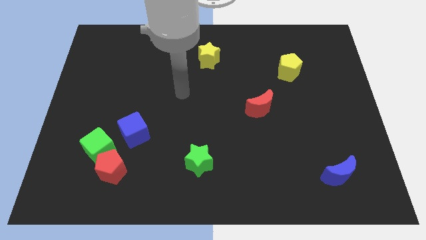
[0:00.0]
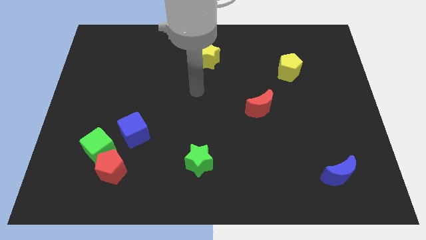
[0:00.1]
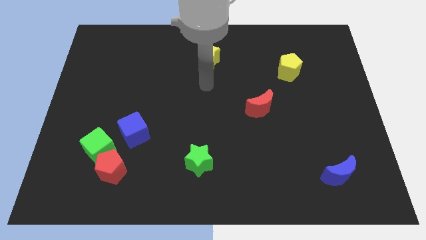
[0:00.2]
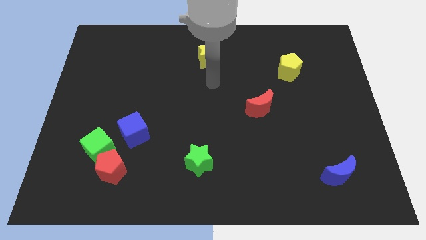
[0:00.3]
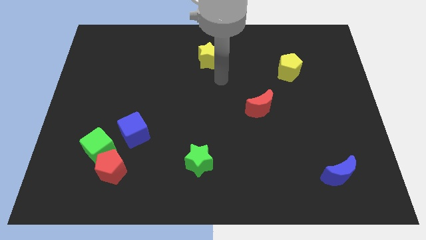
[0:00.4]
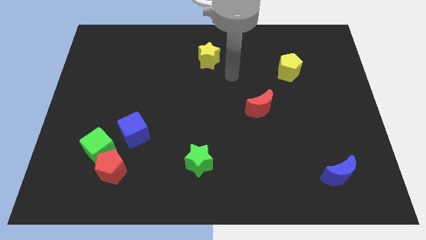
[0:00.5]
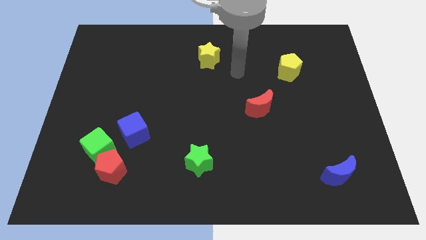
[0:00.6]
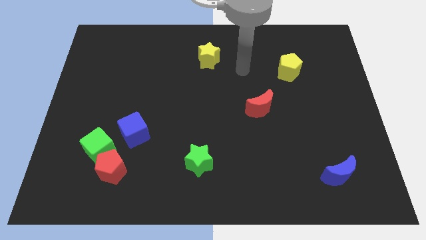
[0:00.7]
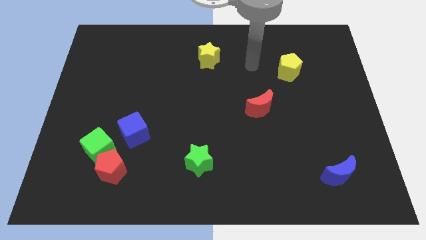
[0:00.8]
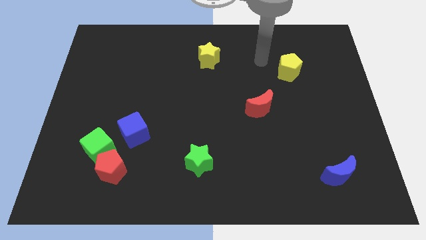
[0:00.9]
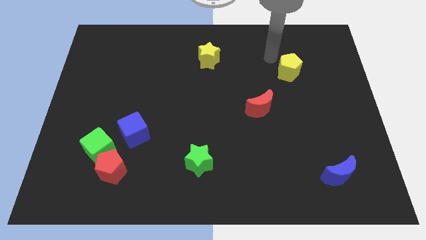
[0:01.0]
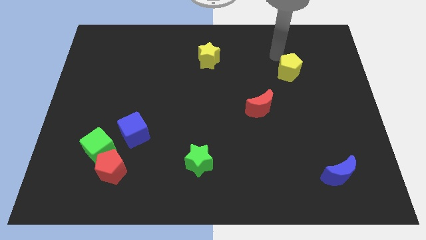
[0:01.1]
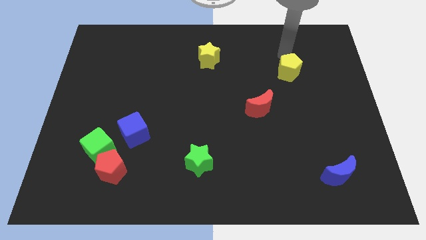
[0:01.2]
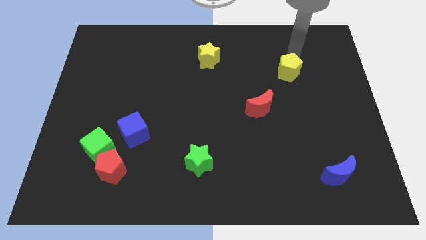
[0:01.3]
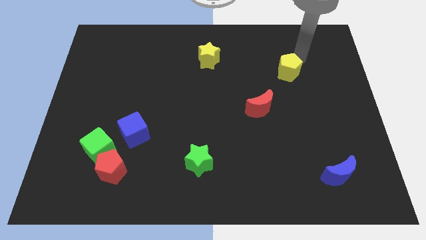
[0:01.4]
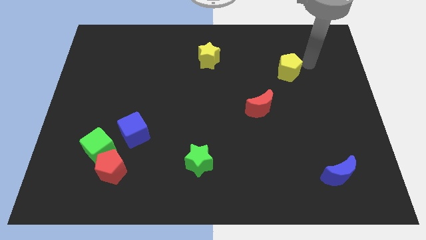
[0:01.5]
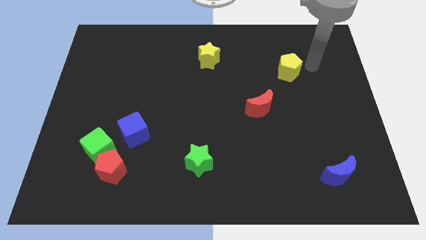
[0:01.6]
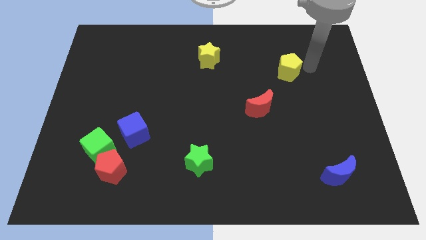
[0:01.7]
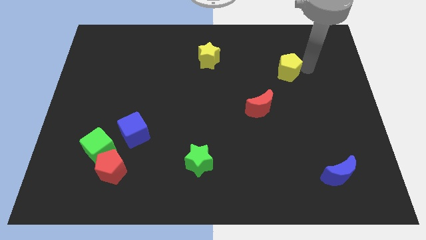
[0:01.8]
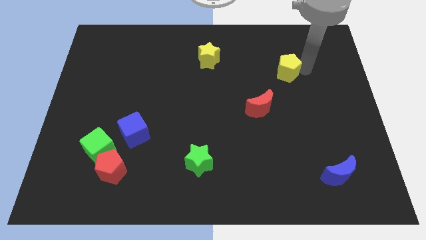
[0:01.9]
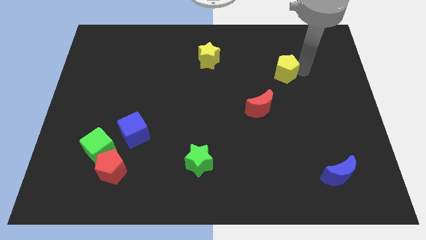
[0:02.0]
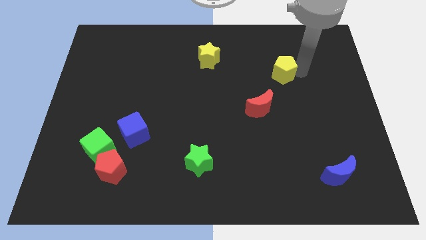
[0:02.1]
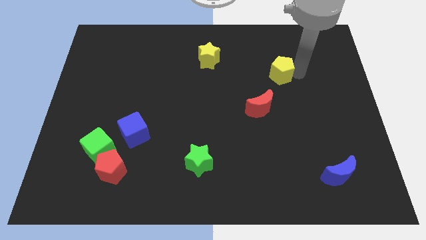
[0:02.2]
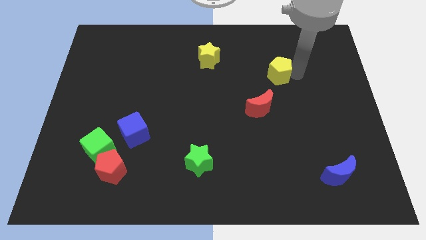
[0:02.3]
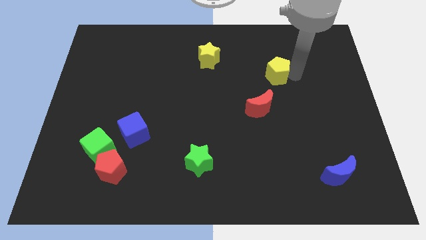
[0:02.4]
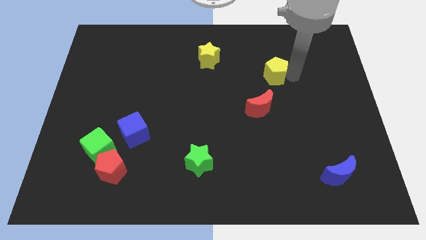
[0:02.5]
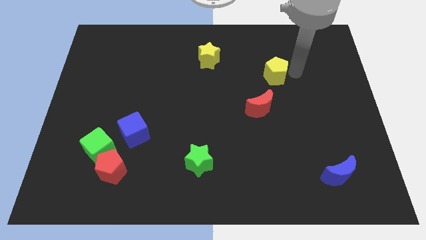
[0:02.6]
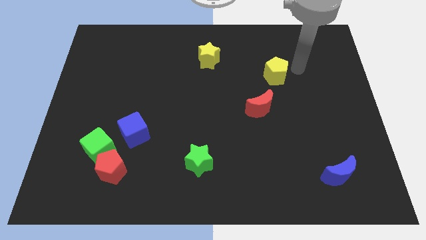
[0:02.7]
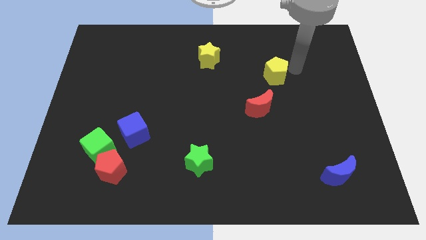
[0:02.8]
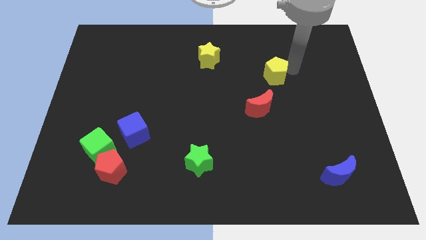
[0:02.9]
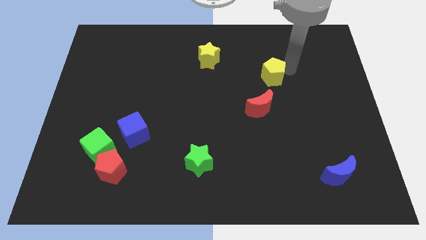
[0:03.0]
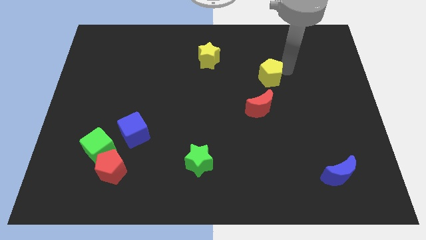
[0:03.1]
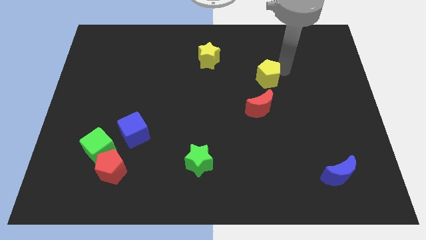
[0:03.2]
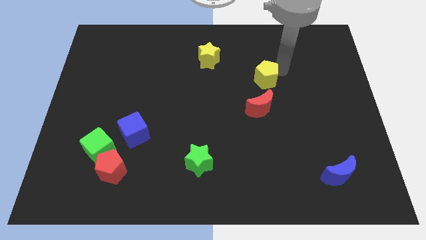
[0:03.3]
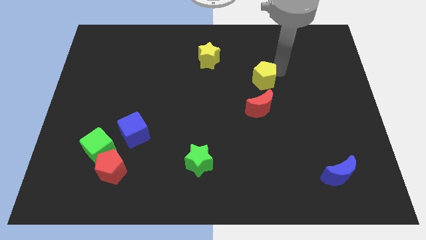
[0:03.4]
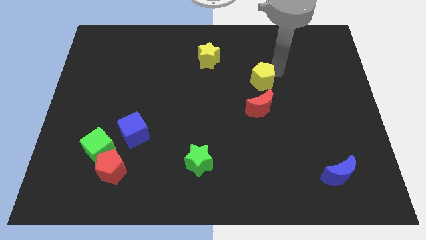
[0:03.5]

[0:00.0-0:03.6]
push the yellow pentagon downwards and left diagonally a little bit

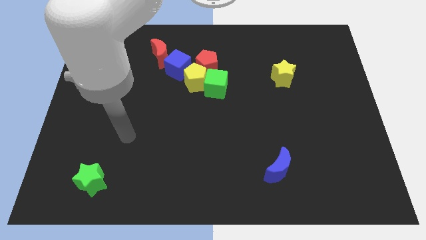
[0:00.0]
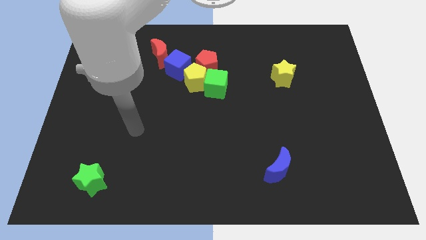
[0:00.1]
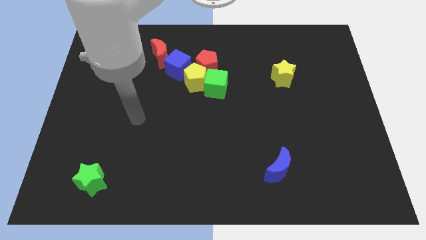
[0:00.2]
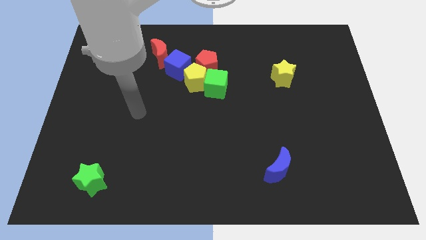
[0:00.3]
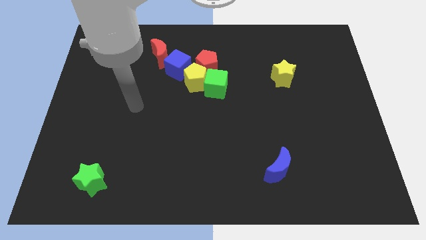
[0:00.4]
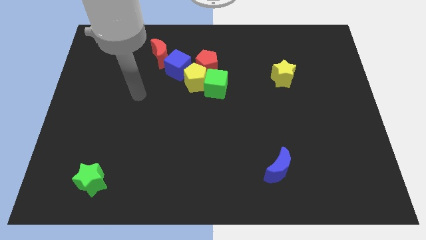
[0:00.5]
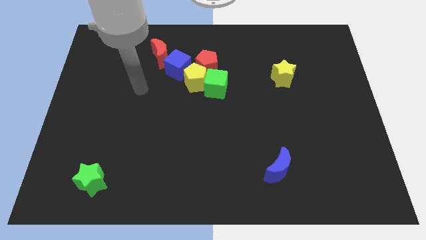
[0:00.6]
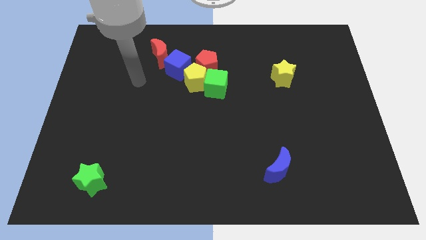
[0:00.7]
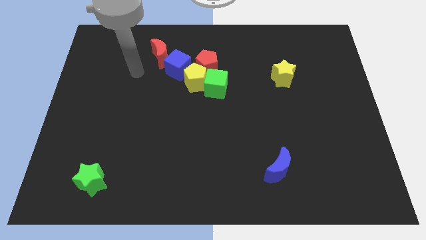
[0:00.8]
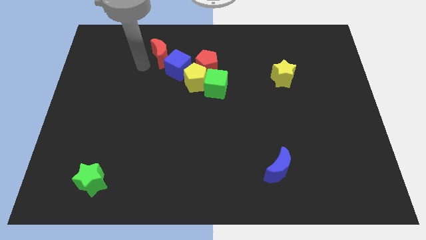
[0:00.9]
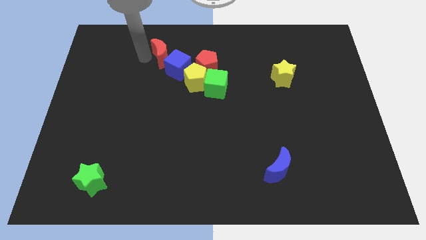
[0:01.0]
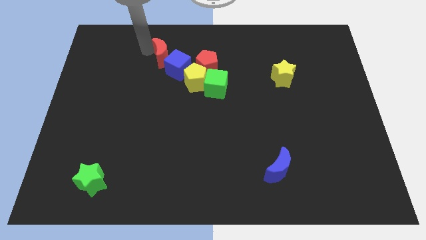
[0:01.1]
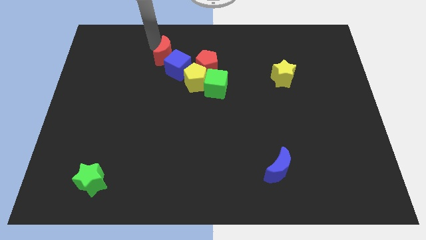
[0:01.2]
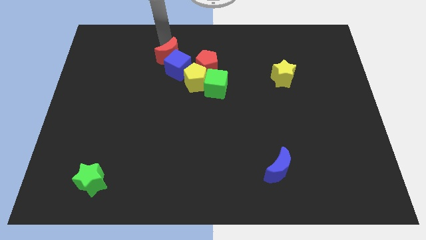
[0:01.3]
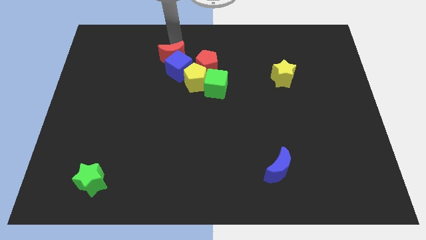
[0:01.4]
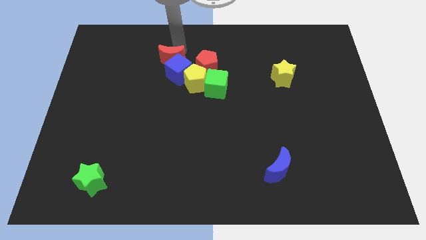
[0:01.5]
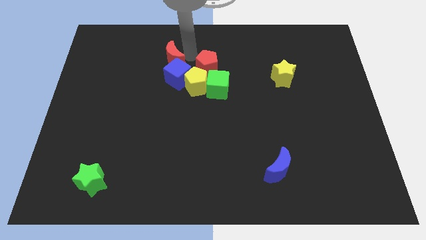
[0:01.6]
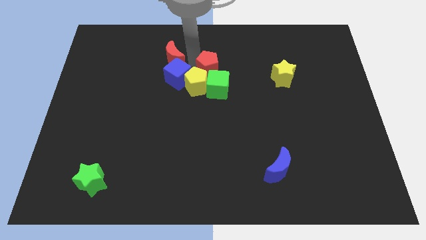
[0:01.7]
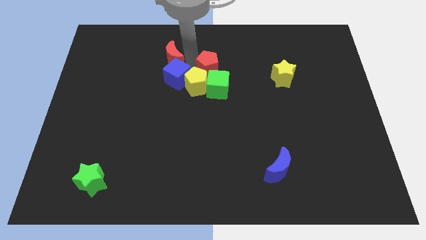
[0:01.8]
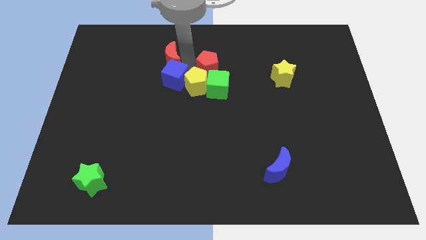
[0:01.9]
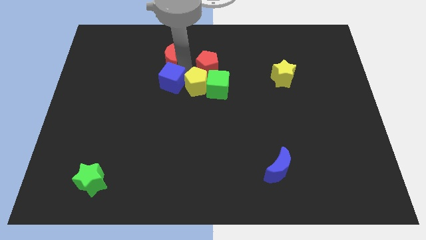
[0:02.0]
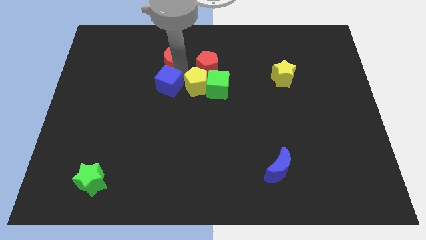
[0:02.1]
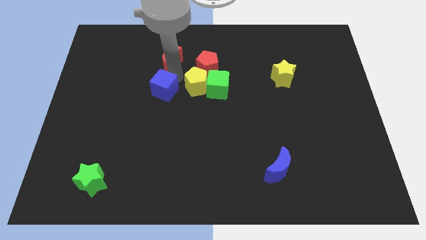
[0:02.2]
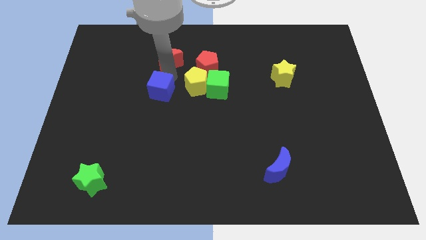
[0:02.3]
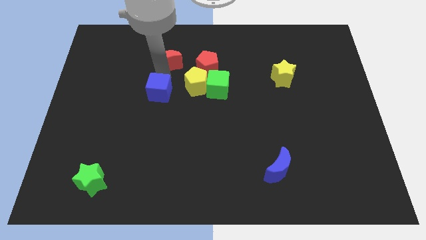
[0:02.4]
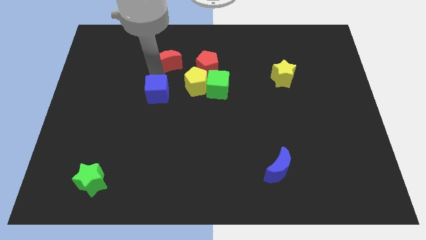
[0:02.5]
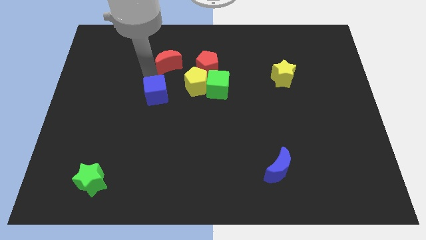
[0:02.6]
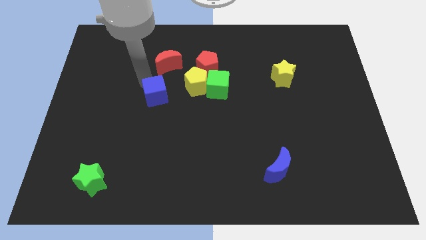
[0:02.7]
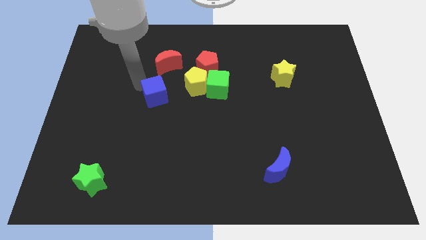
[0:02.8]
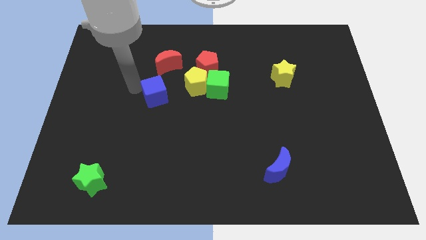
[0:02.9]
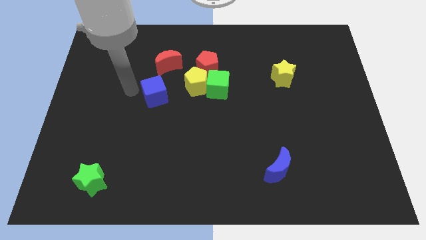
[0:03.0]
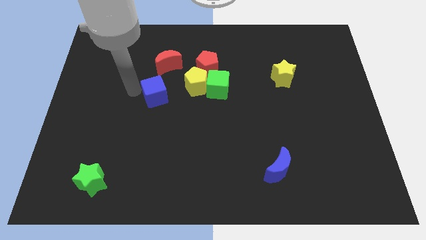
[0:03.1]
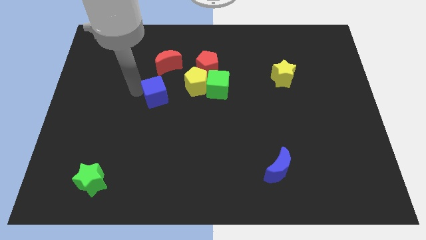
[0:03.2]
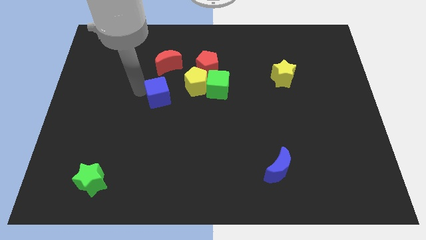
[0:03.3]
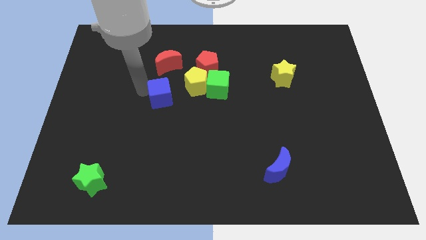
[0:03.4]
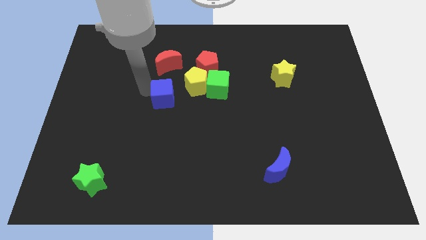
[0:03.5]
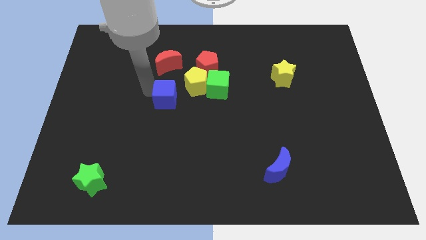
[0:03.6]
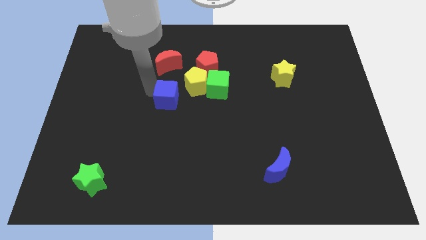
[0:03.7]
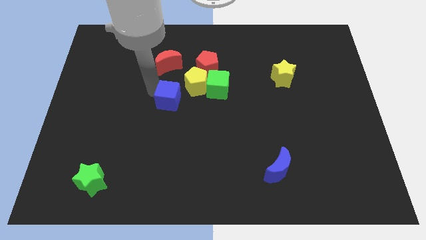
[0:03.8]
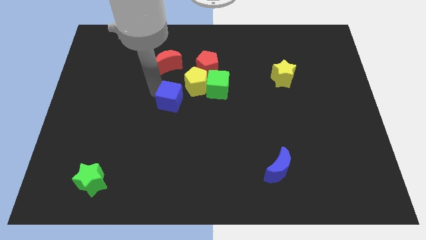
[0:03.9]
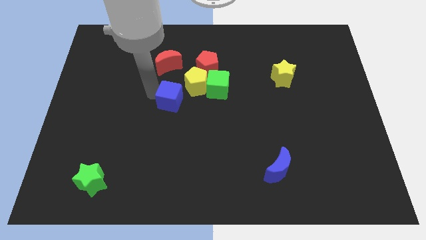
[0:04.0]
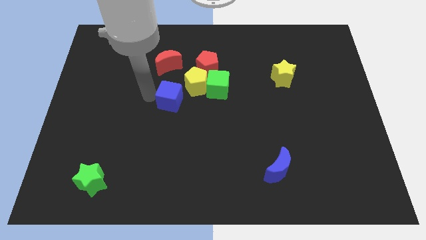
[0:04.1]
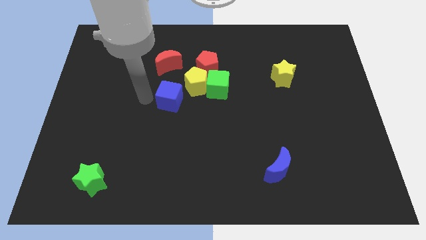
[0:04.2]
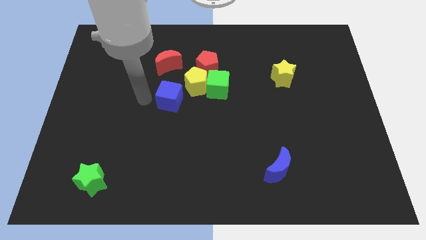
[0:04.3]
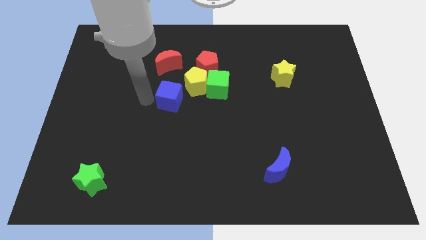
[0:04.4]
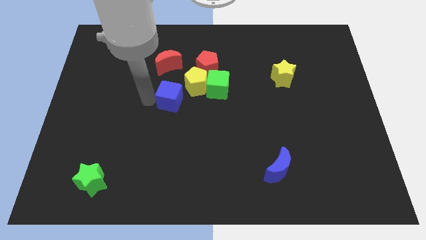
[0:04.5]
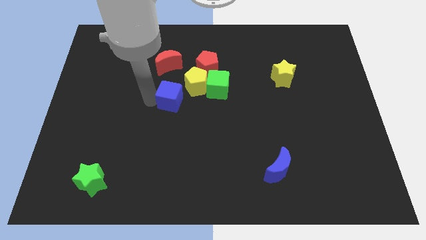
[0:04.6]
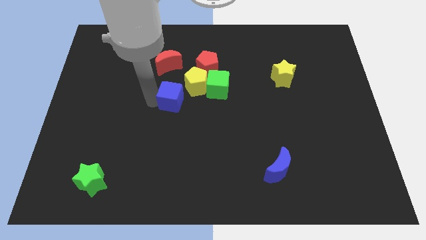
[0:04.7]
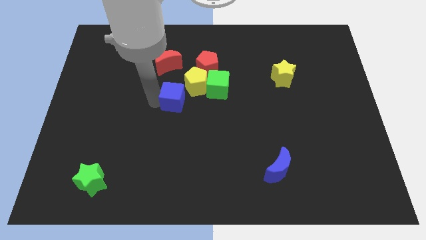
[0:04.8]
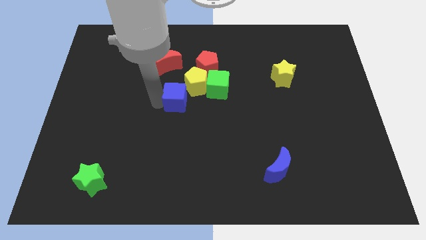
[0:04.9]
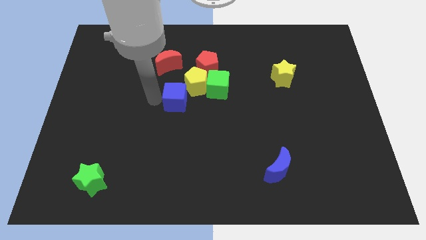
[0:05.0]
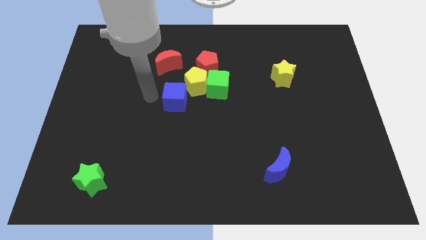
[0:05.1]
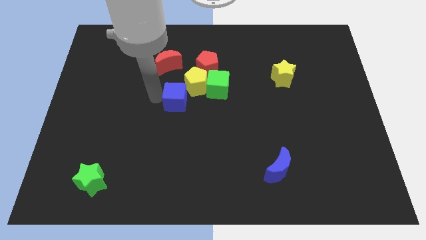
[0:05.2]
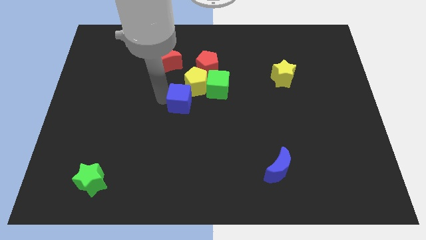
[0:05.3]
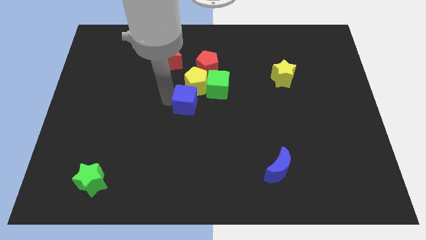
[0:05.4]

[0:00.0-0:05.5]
slightly move the blue cube diagonally downwards and right
